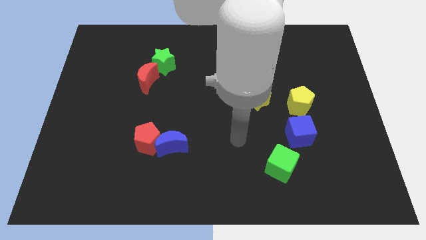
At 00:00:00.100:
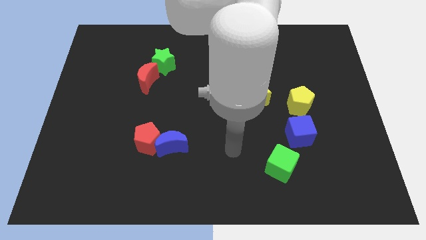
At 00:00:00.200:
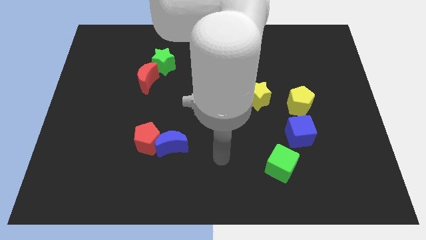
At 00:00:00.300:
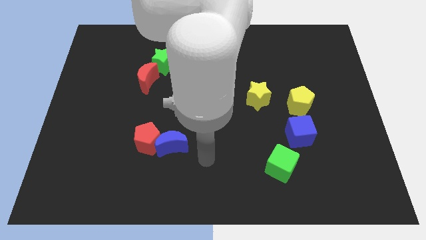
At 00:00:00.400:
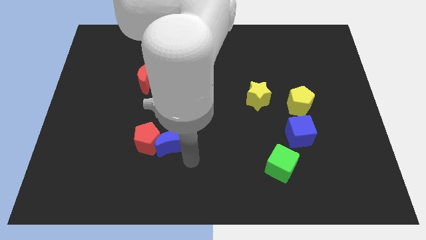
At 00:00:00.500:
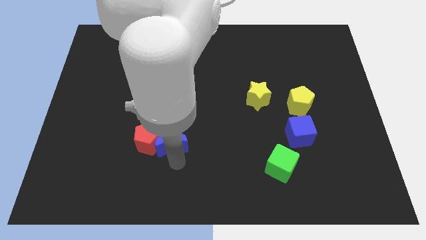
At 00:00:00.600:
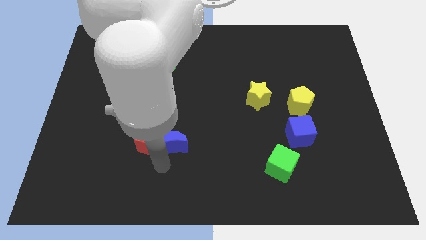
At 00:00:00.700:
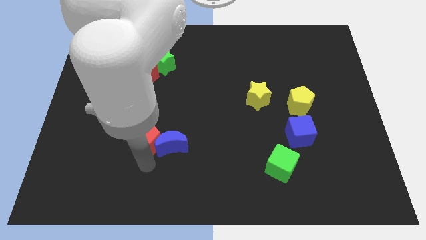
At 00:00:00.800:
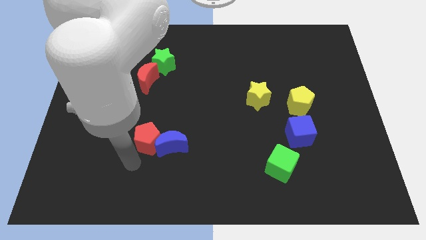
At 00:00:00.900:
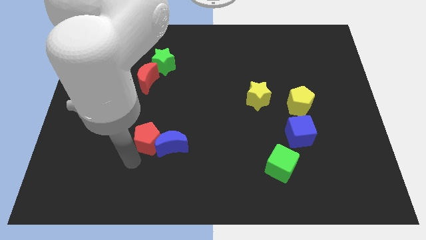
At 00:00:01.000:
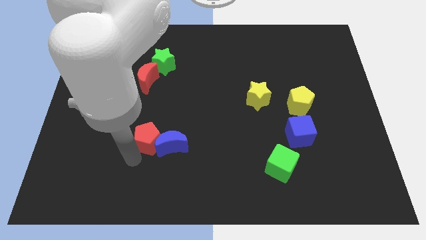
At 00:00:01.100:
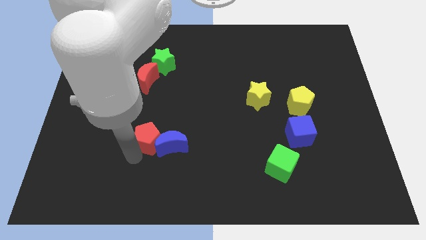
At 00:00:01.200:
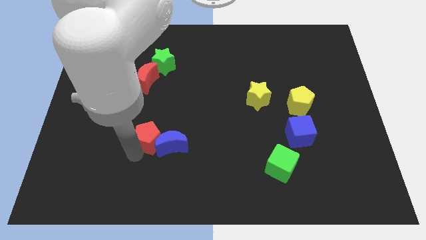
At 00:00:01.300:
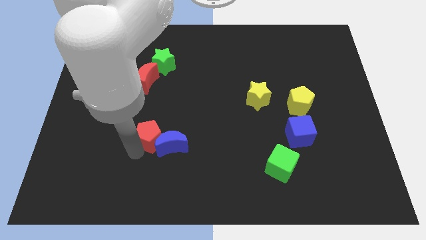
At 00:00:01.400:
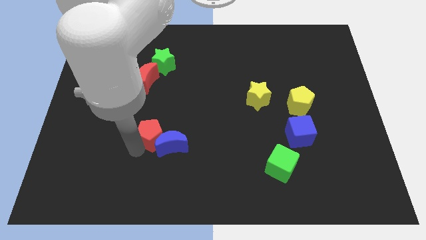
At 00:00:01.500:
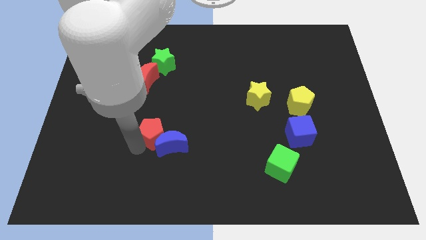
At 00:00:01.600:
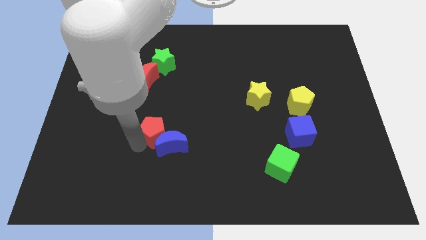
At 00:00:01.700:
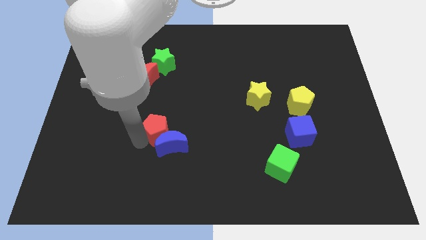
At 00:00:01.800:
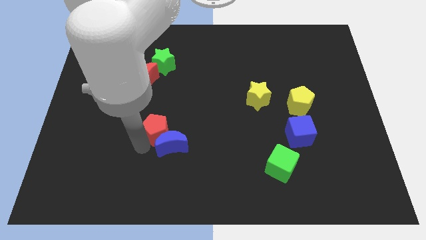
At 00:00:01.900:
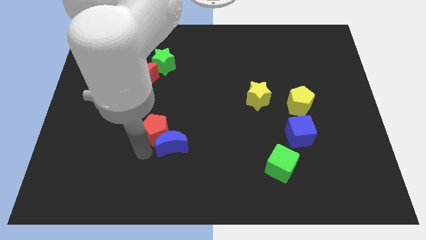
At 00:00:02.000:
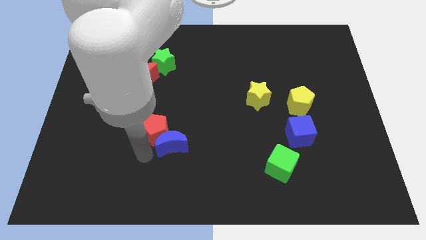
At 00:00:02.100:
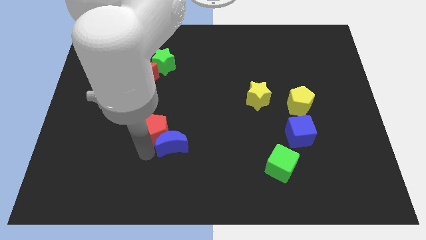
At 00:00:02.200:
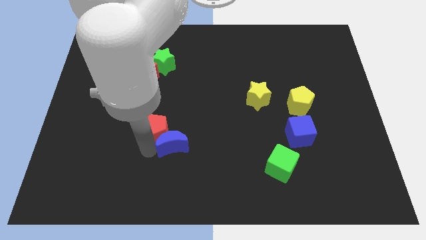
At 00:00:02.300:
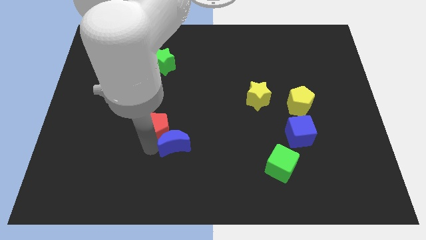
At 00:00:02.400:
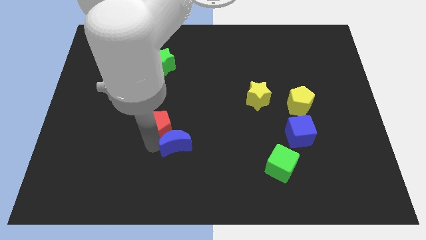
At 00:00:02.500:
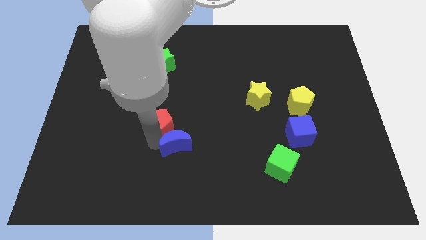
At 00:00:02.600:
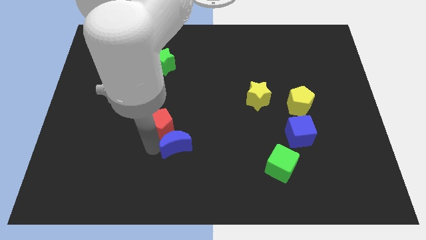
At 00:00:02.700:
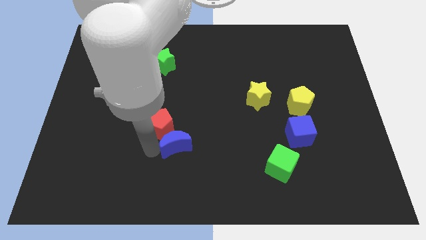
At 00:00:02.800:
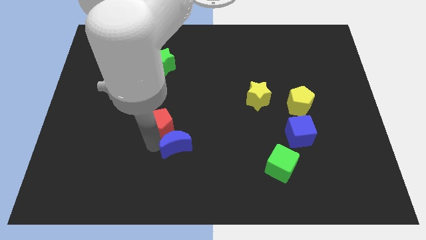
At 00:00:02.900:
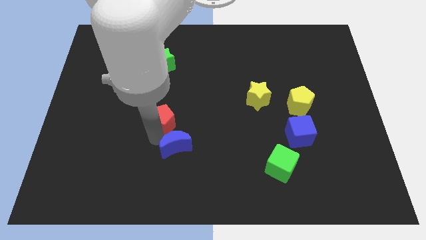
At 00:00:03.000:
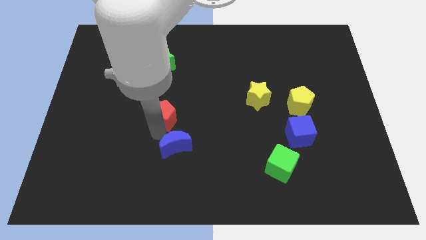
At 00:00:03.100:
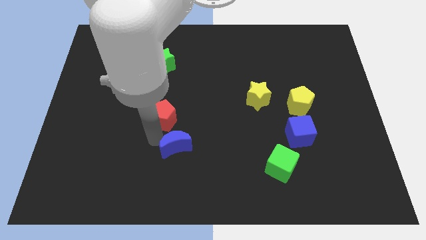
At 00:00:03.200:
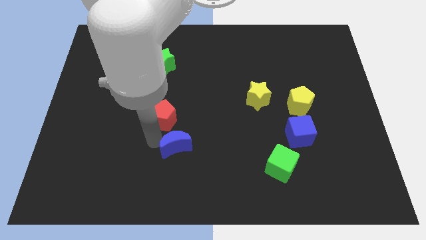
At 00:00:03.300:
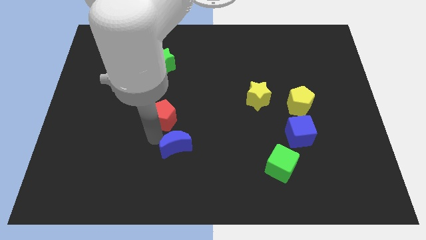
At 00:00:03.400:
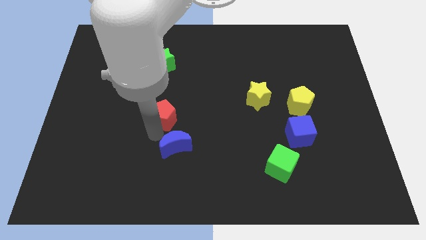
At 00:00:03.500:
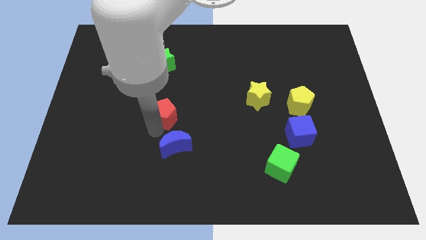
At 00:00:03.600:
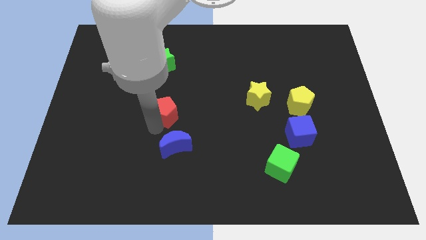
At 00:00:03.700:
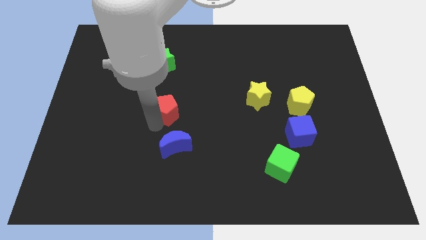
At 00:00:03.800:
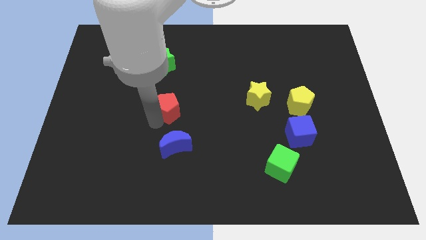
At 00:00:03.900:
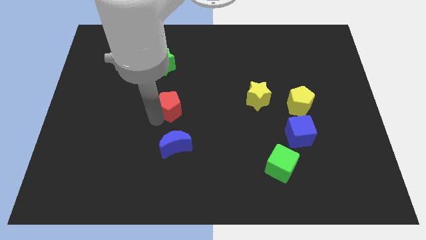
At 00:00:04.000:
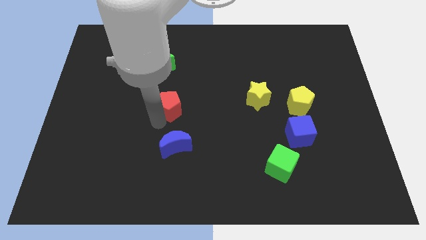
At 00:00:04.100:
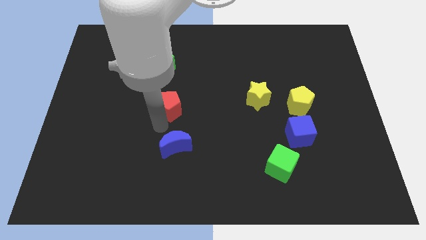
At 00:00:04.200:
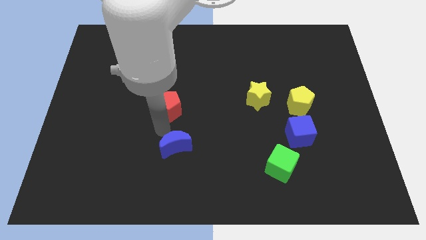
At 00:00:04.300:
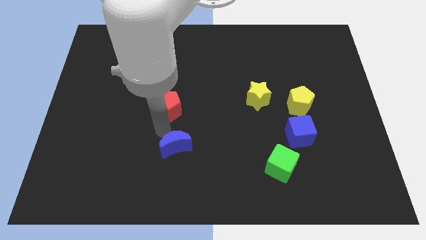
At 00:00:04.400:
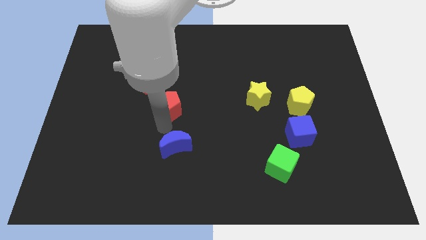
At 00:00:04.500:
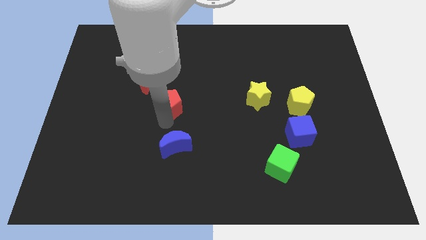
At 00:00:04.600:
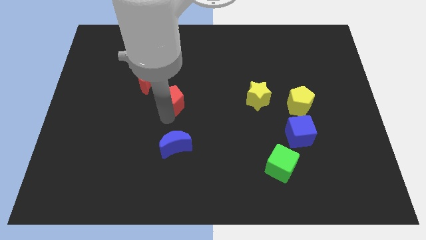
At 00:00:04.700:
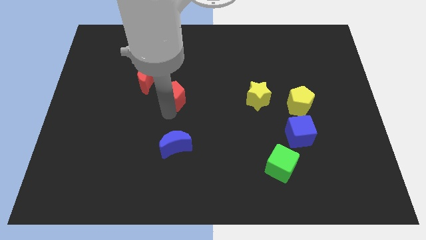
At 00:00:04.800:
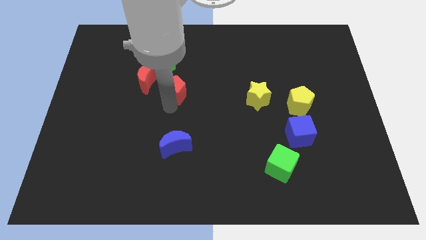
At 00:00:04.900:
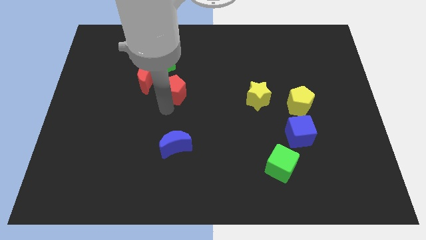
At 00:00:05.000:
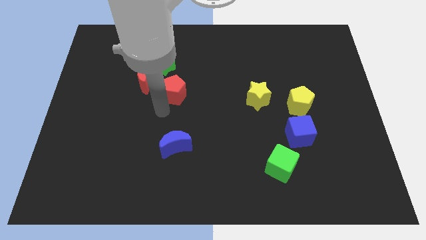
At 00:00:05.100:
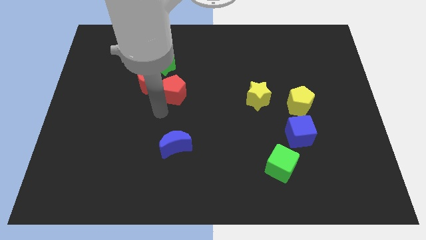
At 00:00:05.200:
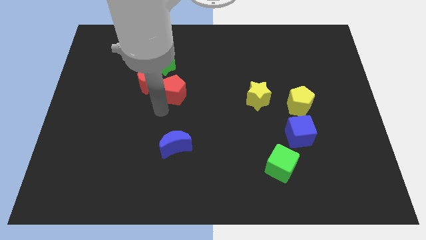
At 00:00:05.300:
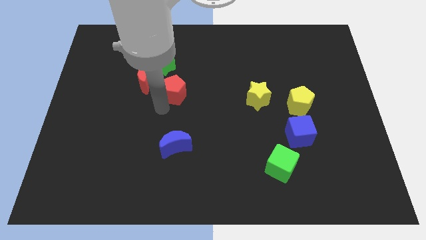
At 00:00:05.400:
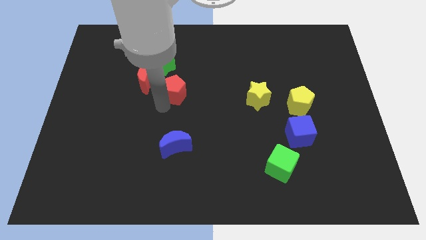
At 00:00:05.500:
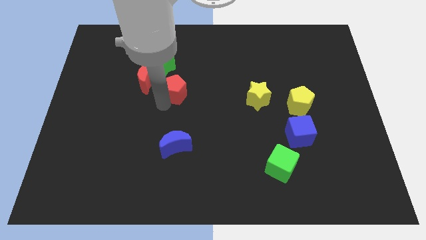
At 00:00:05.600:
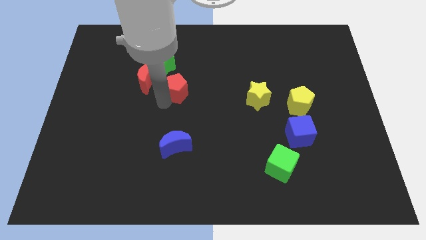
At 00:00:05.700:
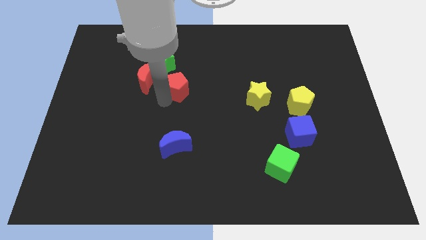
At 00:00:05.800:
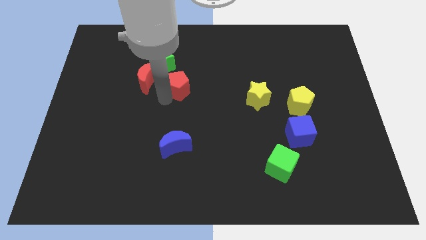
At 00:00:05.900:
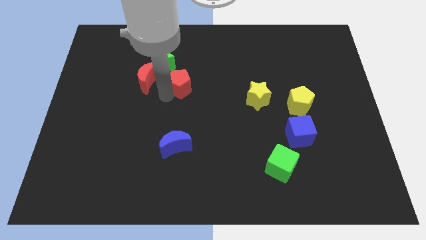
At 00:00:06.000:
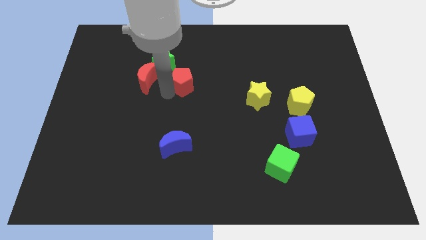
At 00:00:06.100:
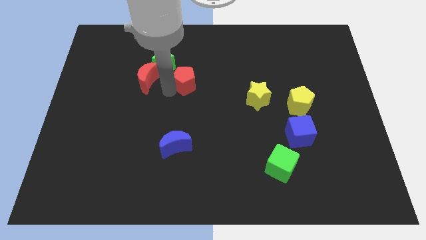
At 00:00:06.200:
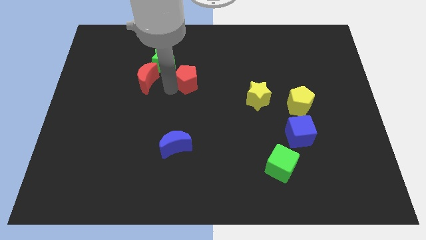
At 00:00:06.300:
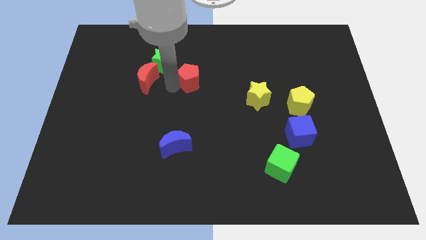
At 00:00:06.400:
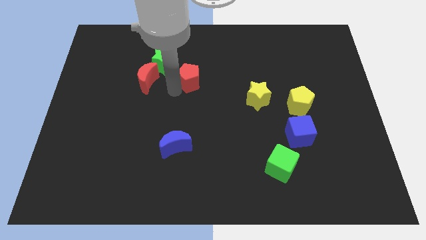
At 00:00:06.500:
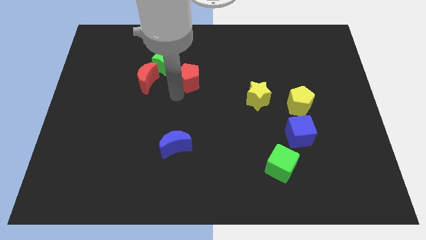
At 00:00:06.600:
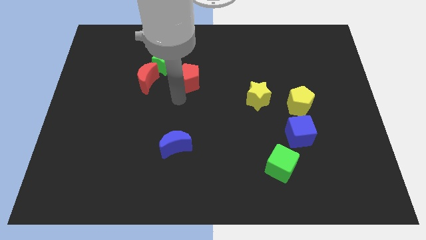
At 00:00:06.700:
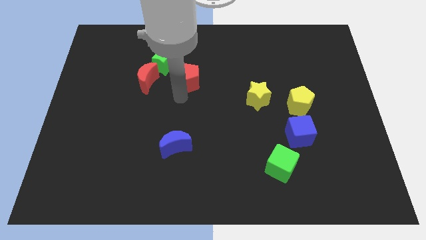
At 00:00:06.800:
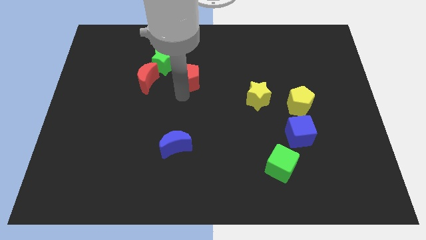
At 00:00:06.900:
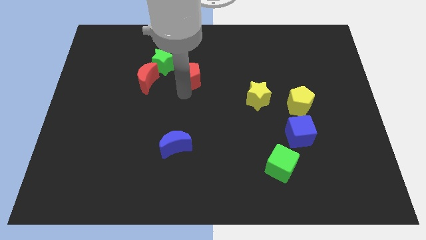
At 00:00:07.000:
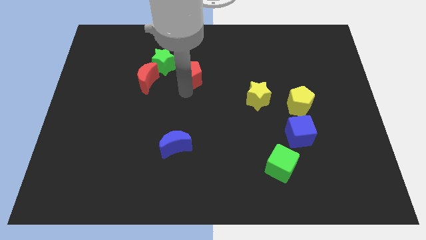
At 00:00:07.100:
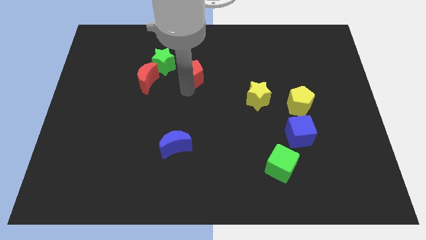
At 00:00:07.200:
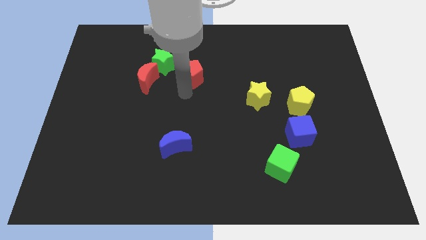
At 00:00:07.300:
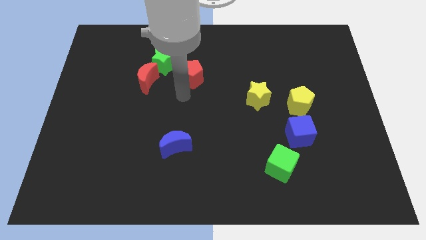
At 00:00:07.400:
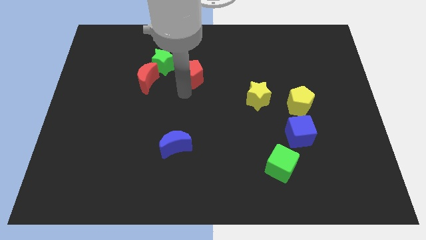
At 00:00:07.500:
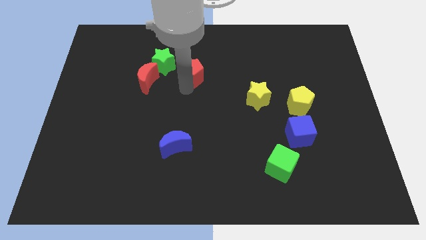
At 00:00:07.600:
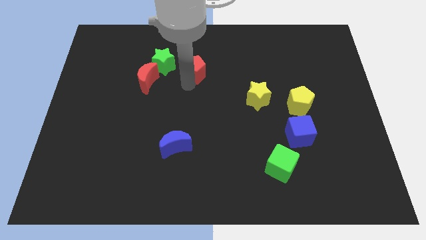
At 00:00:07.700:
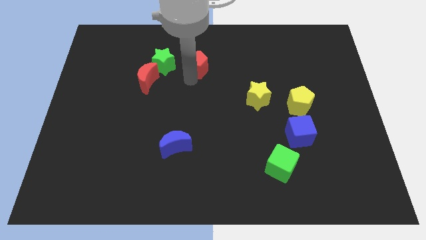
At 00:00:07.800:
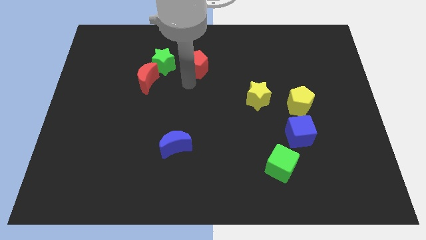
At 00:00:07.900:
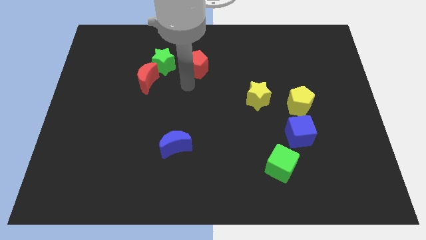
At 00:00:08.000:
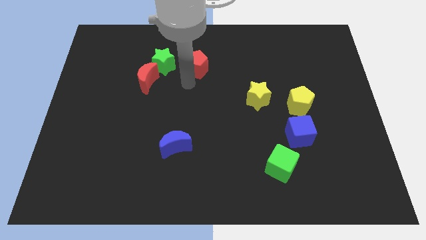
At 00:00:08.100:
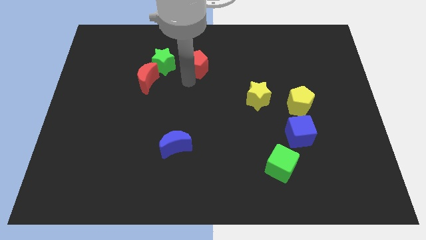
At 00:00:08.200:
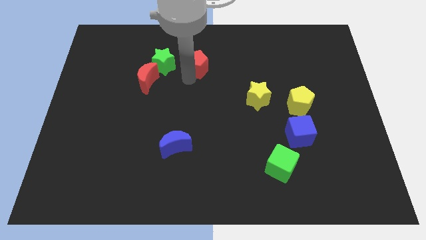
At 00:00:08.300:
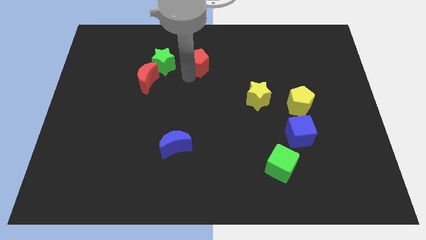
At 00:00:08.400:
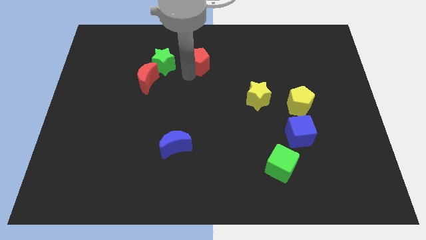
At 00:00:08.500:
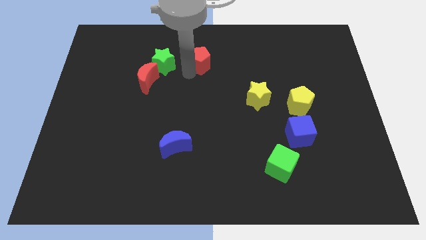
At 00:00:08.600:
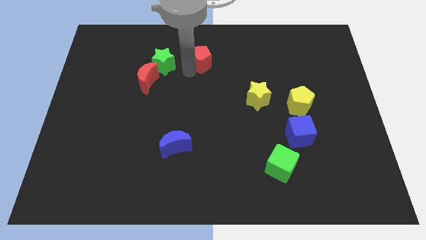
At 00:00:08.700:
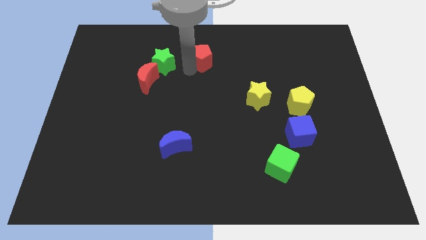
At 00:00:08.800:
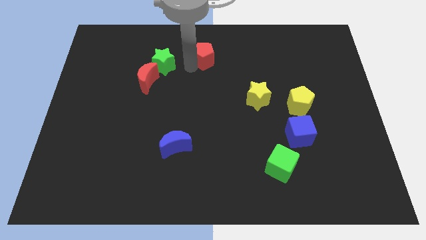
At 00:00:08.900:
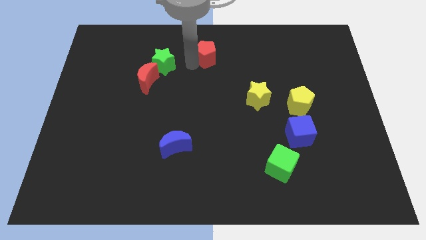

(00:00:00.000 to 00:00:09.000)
slide the red pentagon to the top
